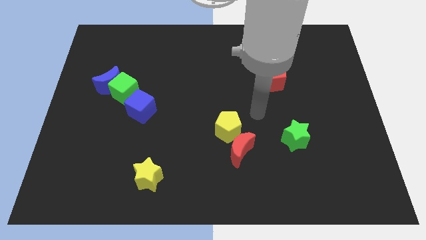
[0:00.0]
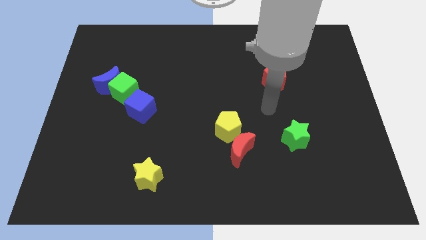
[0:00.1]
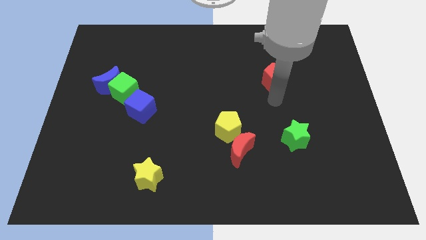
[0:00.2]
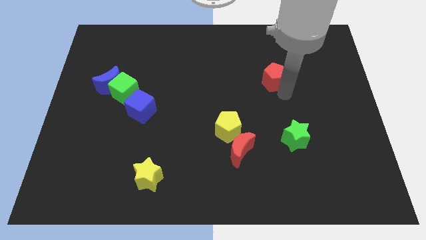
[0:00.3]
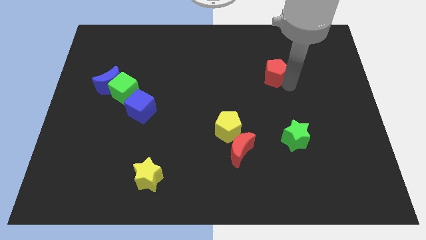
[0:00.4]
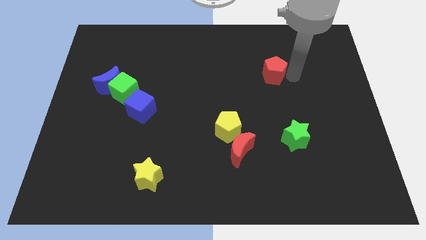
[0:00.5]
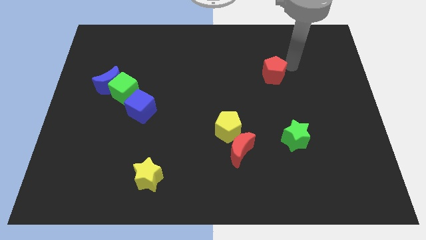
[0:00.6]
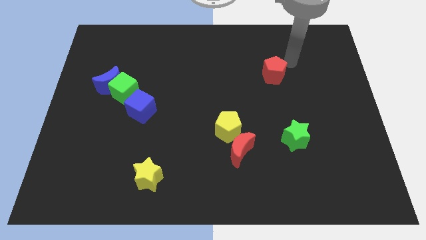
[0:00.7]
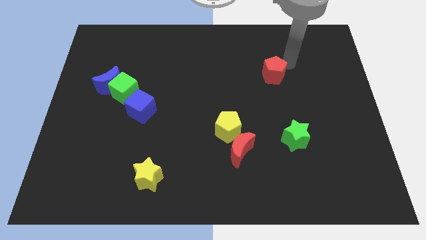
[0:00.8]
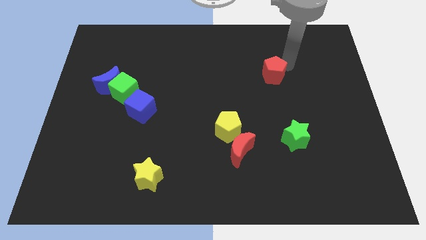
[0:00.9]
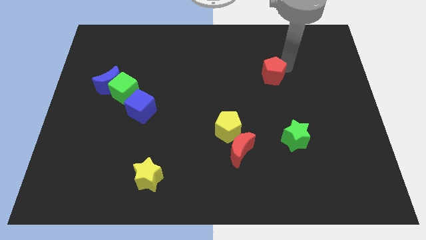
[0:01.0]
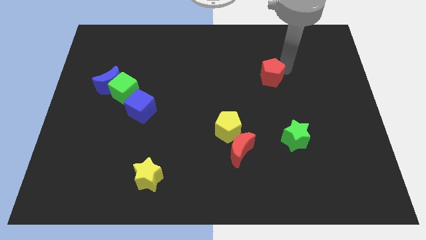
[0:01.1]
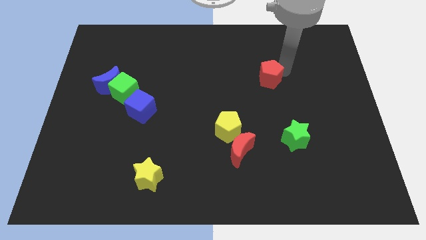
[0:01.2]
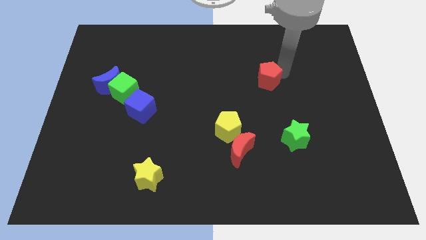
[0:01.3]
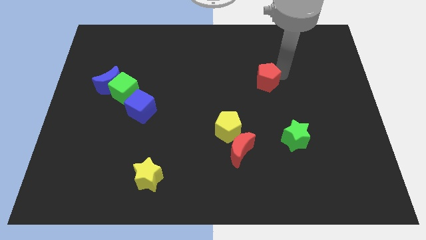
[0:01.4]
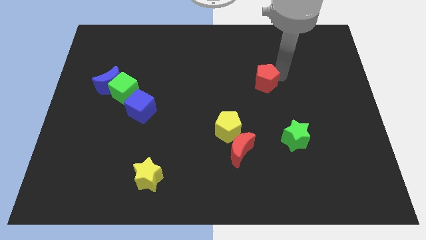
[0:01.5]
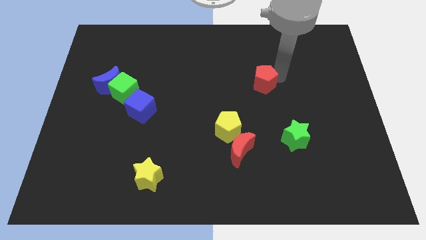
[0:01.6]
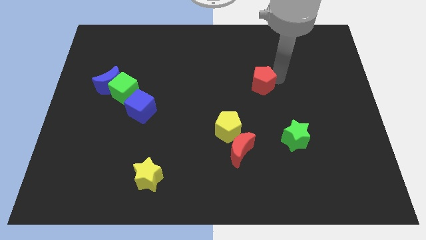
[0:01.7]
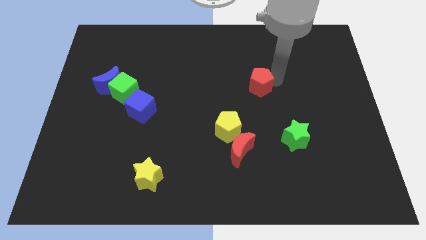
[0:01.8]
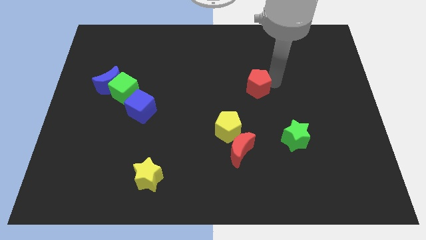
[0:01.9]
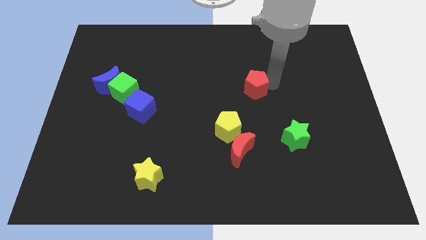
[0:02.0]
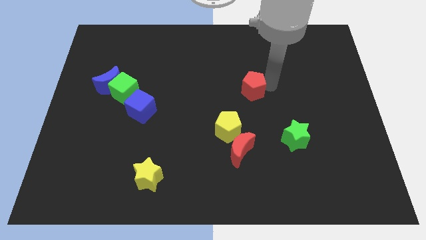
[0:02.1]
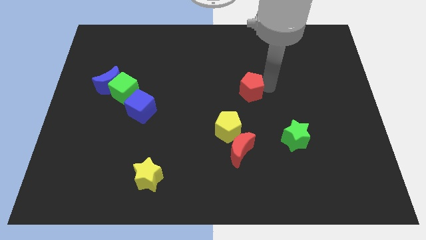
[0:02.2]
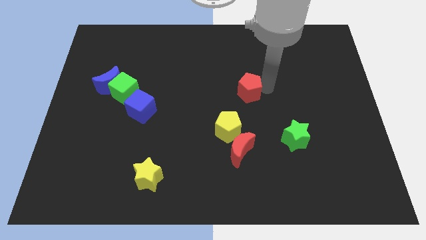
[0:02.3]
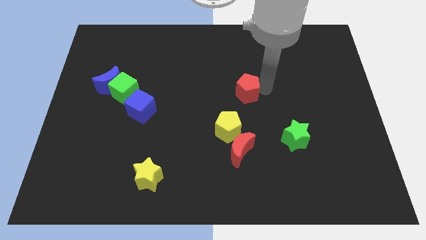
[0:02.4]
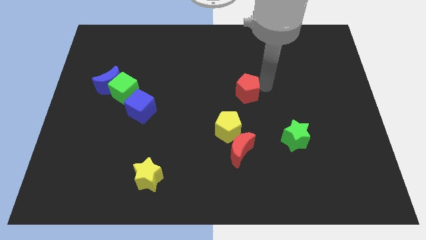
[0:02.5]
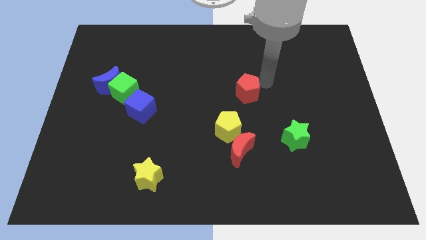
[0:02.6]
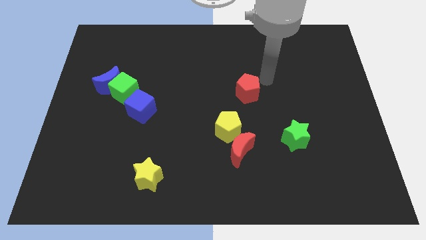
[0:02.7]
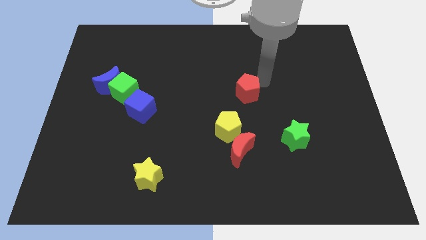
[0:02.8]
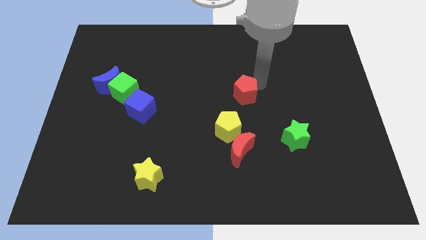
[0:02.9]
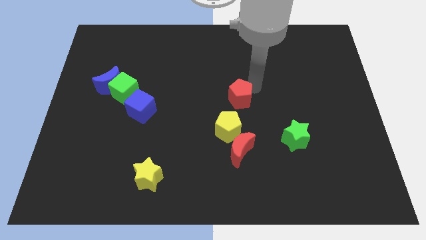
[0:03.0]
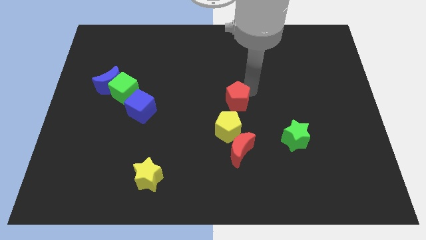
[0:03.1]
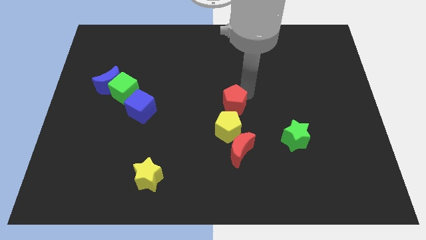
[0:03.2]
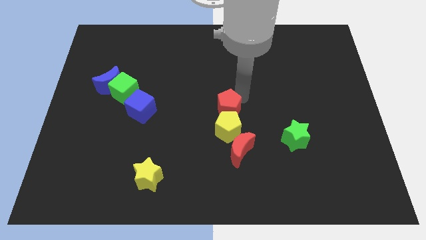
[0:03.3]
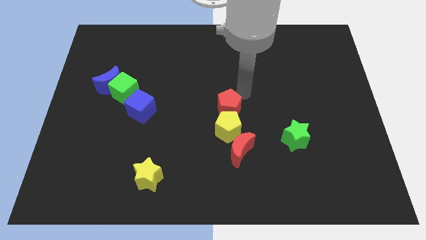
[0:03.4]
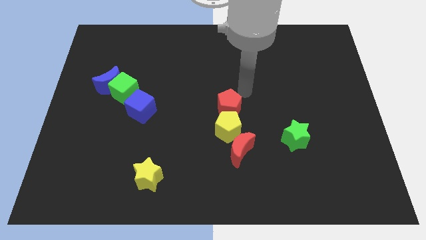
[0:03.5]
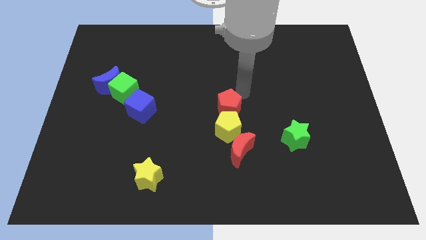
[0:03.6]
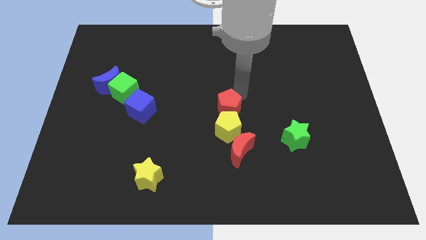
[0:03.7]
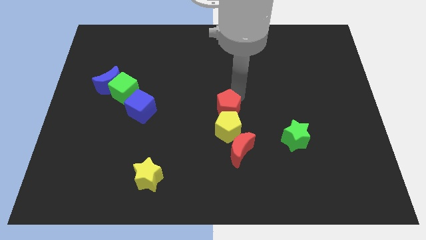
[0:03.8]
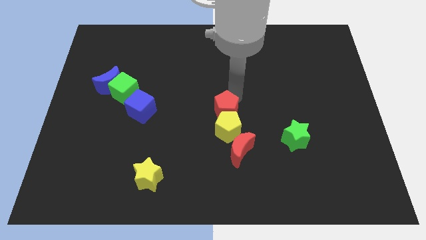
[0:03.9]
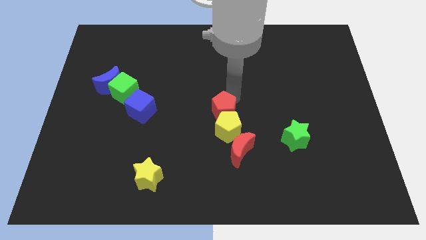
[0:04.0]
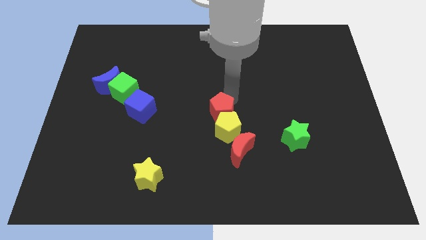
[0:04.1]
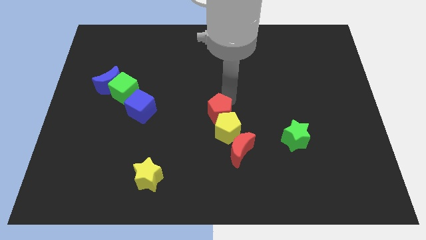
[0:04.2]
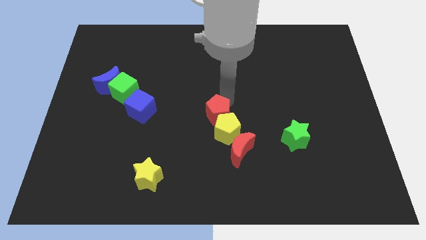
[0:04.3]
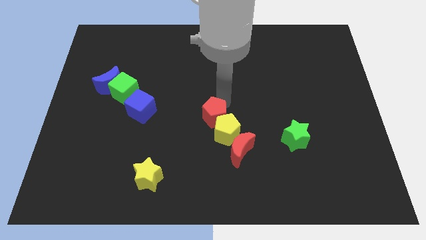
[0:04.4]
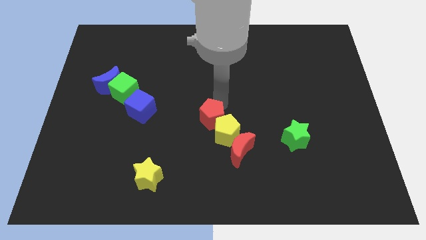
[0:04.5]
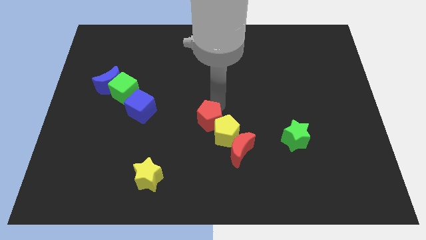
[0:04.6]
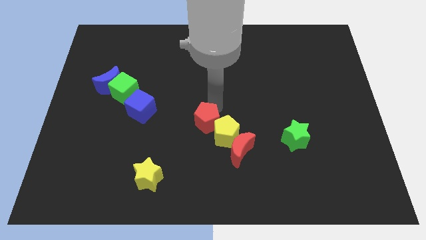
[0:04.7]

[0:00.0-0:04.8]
slide the red pentagon downwards and to the left diagonally

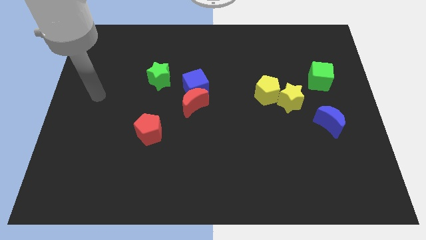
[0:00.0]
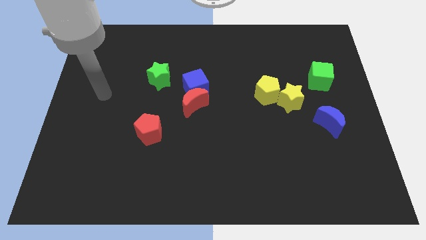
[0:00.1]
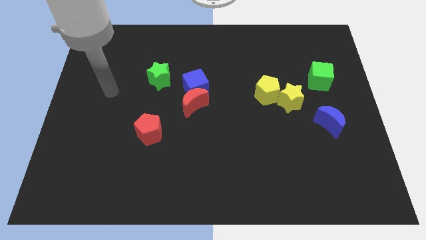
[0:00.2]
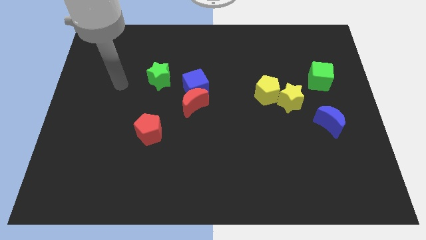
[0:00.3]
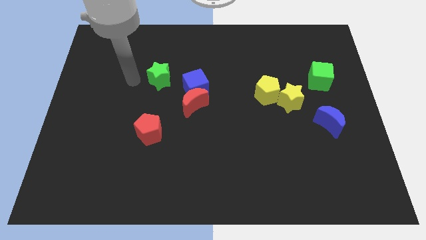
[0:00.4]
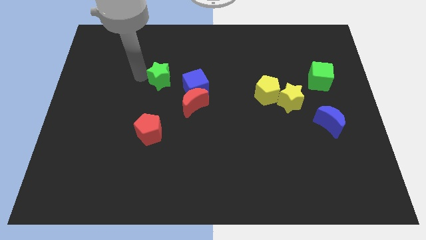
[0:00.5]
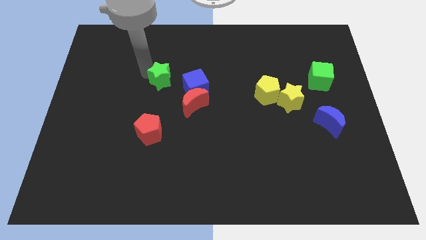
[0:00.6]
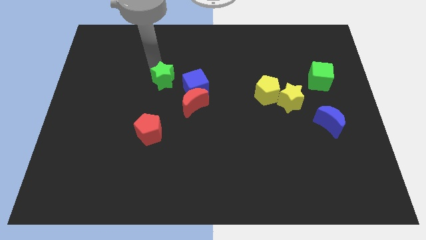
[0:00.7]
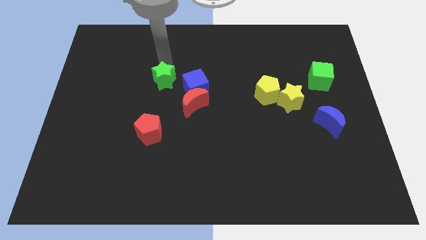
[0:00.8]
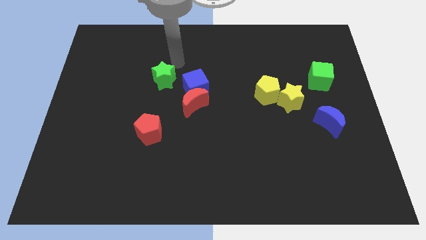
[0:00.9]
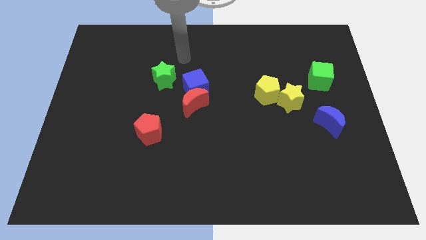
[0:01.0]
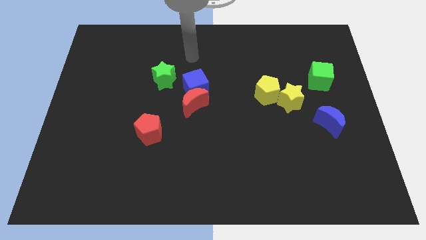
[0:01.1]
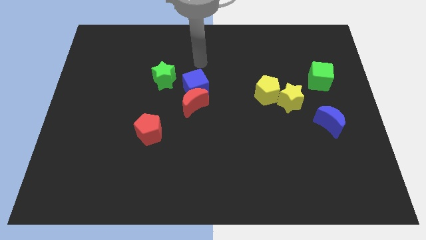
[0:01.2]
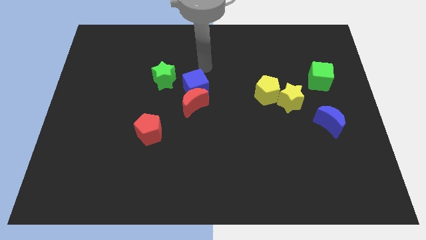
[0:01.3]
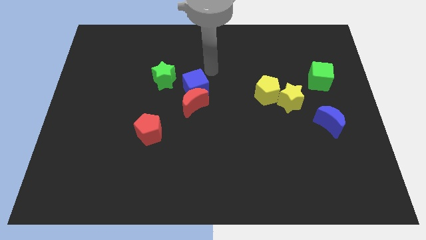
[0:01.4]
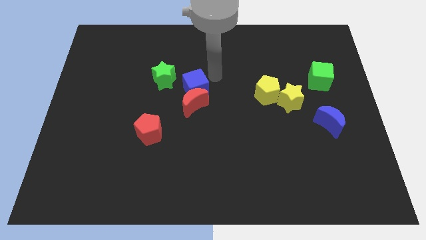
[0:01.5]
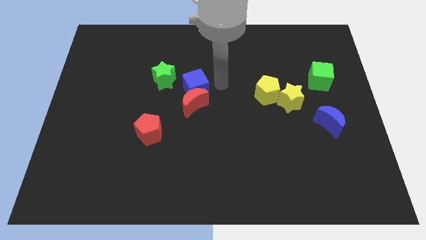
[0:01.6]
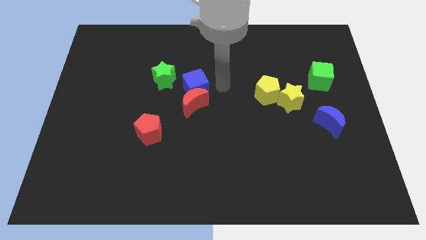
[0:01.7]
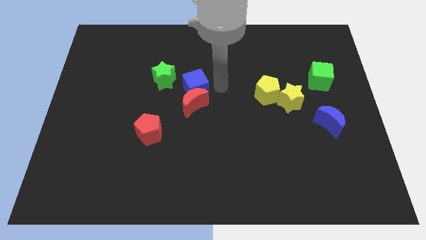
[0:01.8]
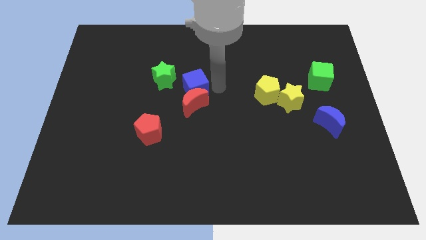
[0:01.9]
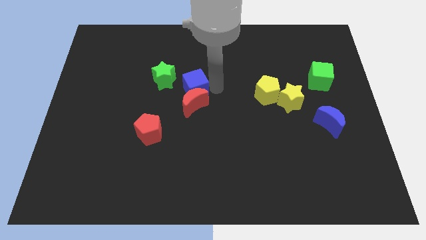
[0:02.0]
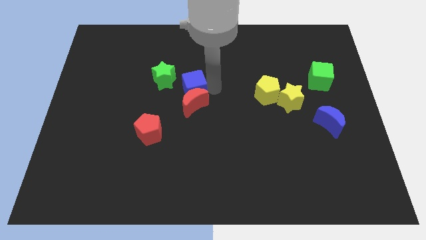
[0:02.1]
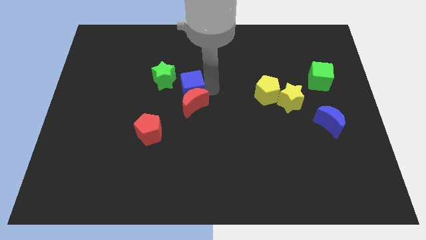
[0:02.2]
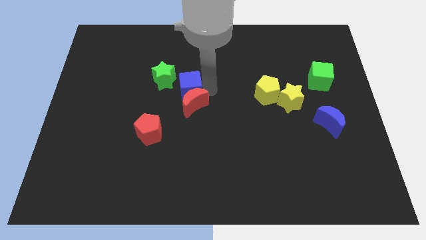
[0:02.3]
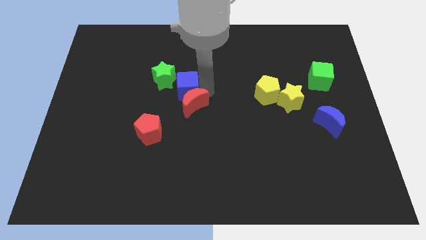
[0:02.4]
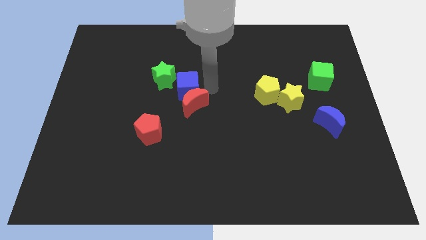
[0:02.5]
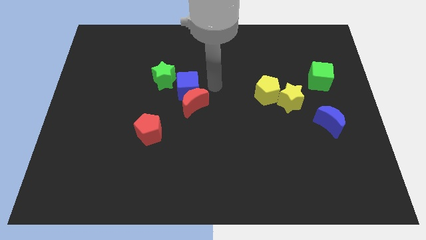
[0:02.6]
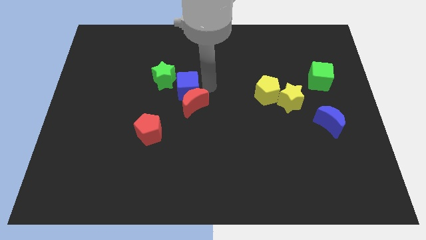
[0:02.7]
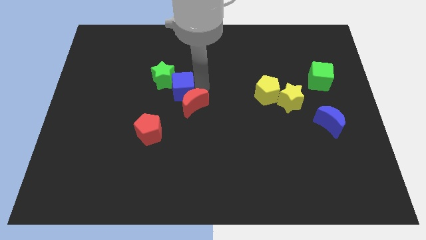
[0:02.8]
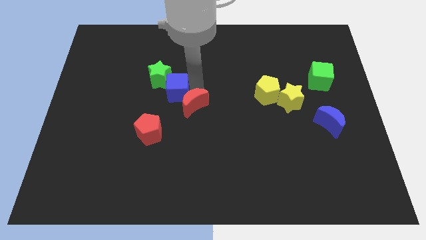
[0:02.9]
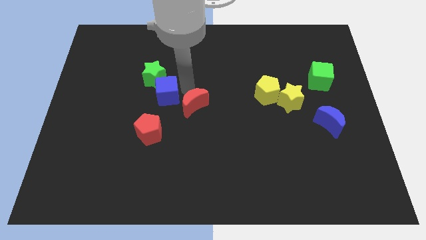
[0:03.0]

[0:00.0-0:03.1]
push the blue cube to the left slightly
